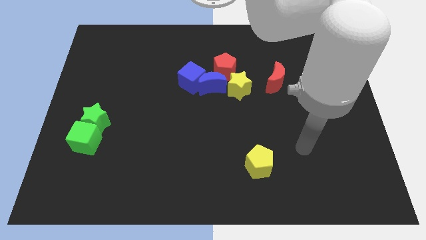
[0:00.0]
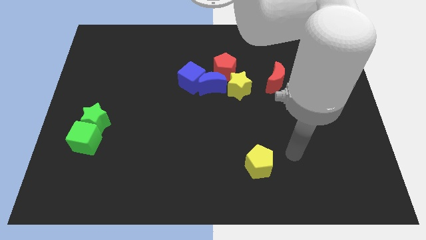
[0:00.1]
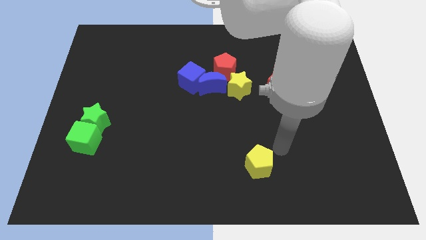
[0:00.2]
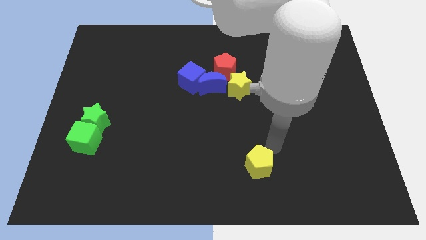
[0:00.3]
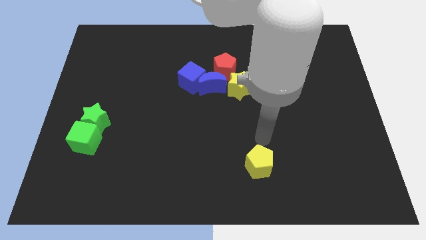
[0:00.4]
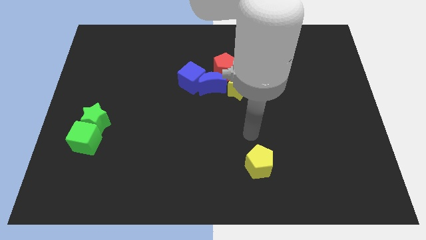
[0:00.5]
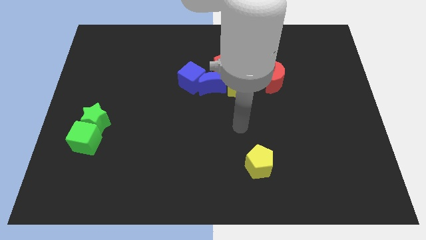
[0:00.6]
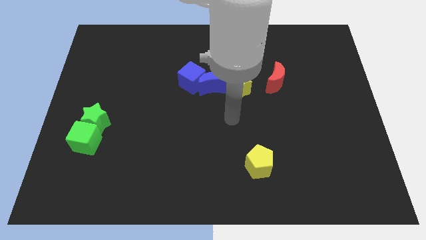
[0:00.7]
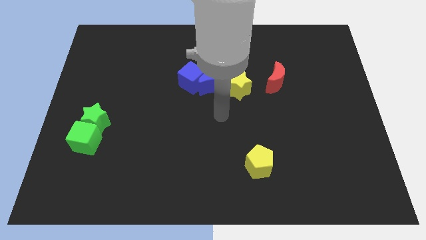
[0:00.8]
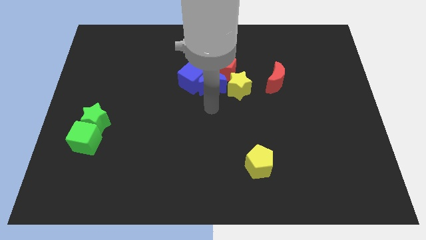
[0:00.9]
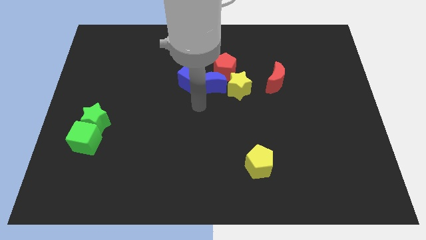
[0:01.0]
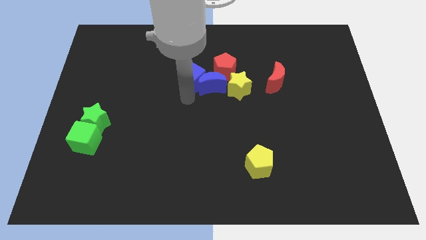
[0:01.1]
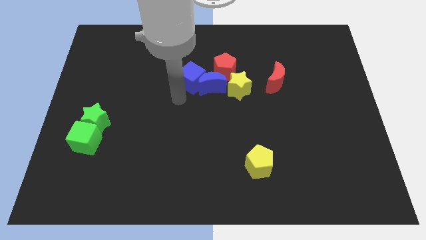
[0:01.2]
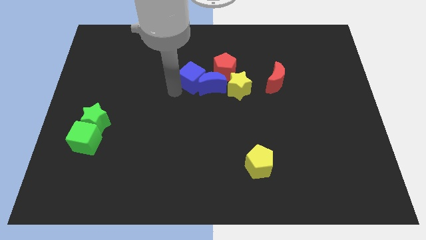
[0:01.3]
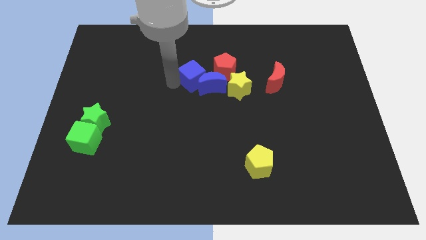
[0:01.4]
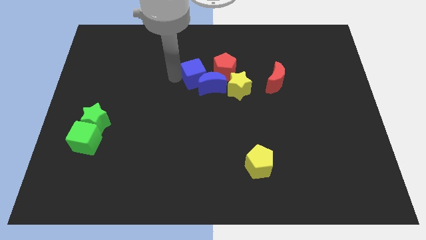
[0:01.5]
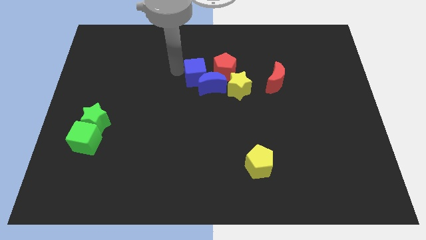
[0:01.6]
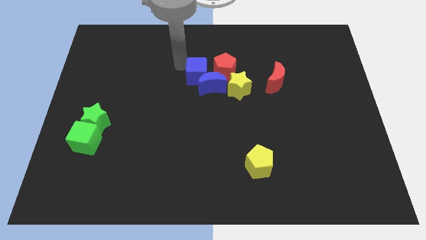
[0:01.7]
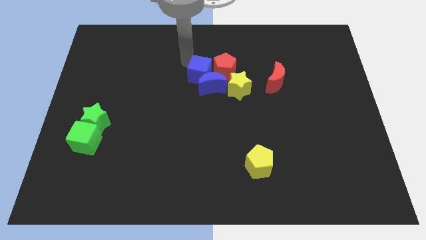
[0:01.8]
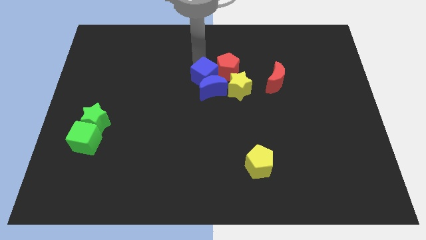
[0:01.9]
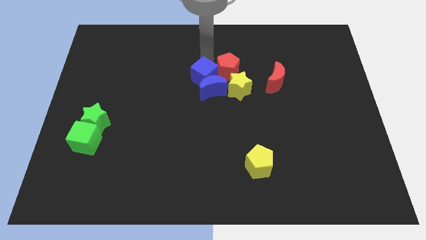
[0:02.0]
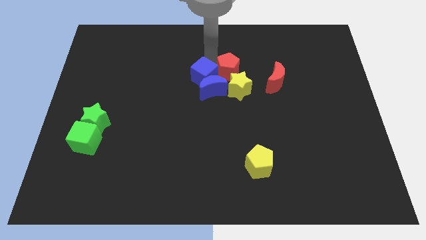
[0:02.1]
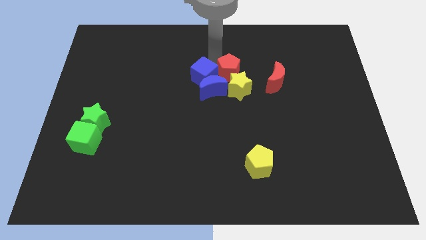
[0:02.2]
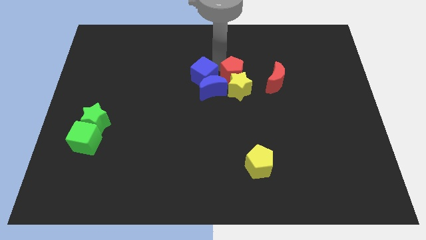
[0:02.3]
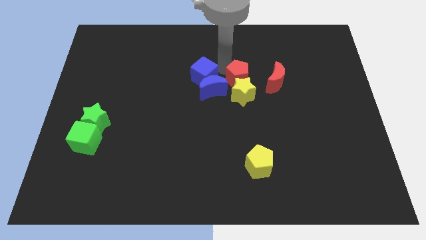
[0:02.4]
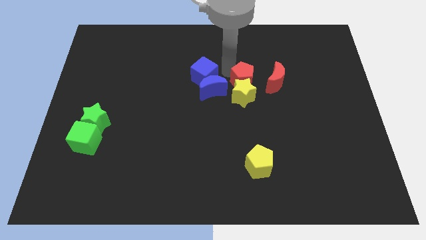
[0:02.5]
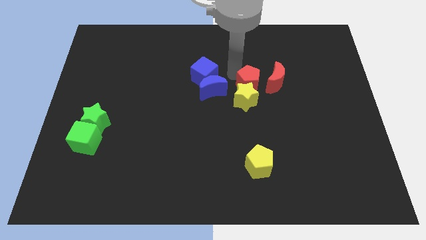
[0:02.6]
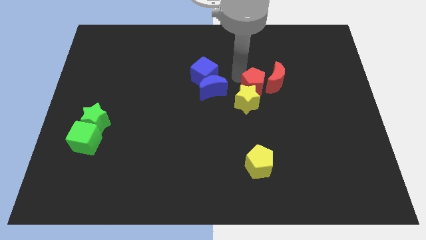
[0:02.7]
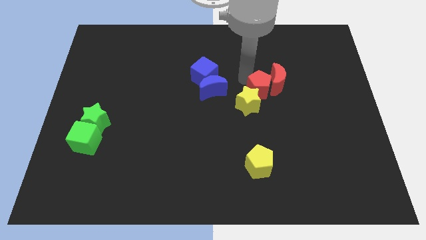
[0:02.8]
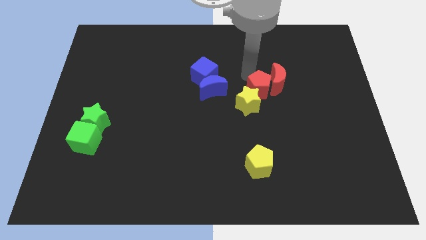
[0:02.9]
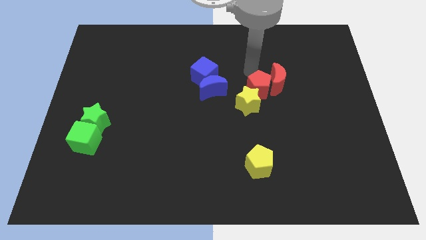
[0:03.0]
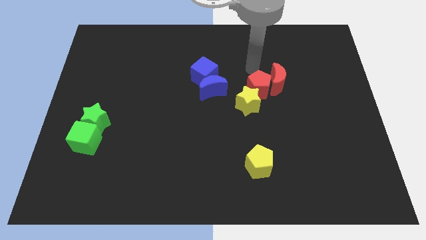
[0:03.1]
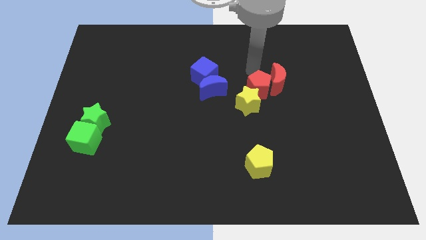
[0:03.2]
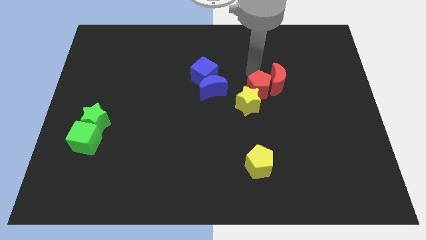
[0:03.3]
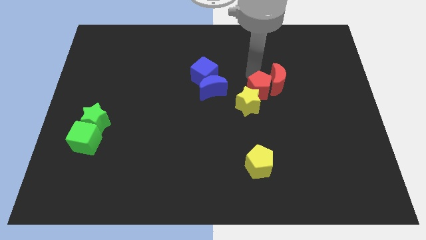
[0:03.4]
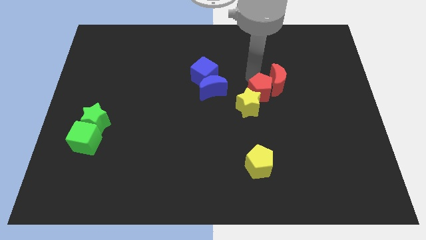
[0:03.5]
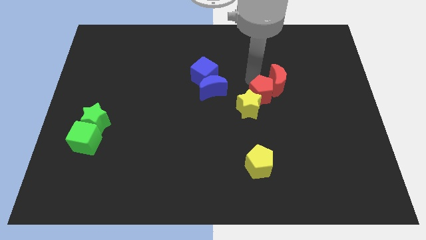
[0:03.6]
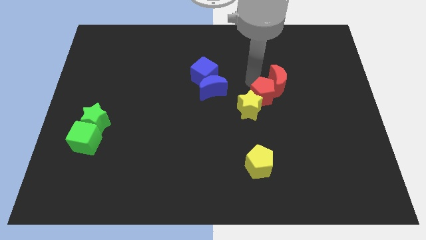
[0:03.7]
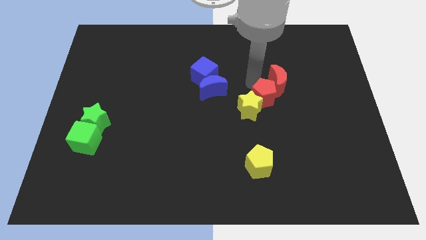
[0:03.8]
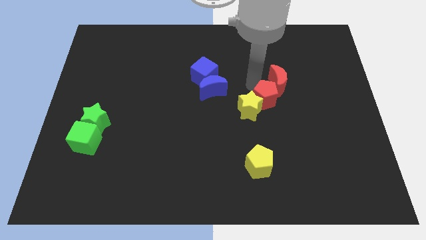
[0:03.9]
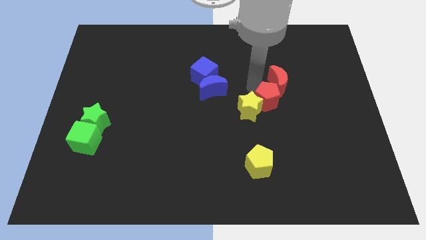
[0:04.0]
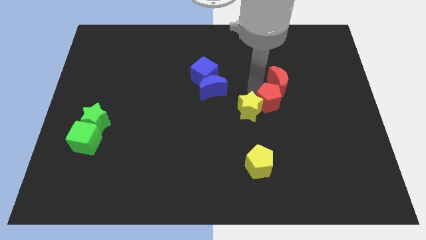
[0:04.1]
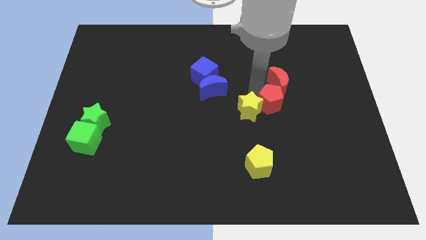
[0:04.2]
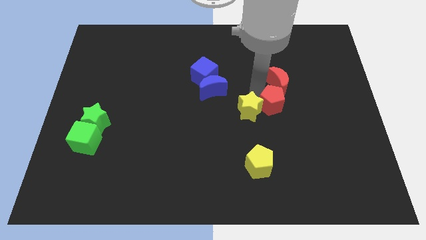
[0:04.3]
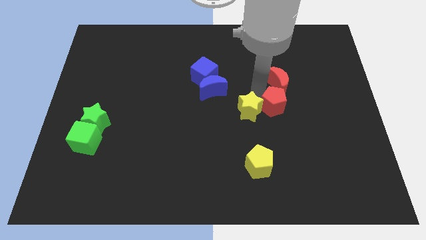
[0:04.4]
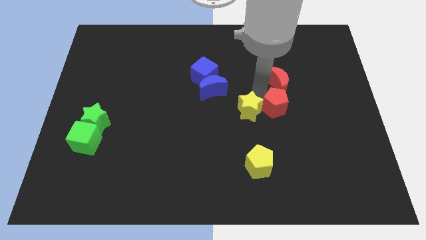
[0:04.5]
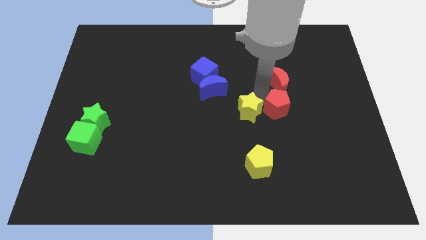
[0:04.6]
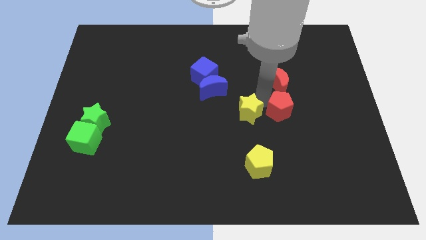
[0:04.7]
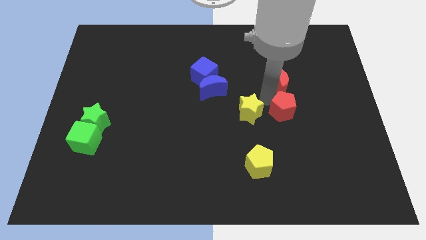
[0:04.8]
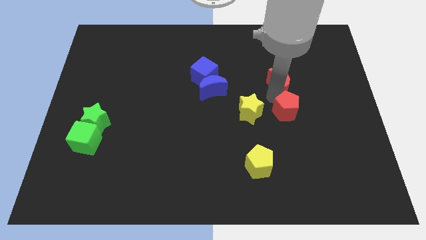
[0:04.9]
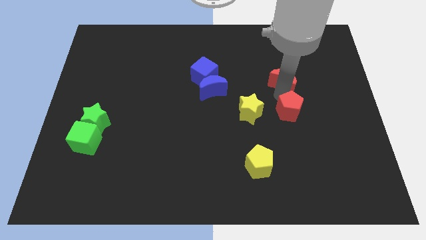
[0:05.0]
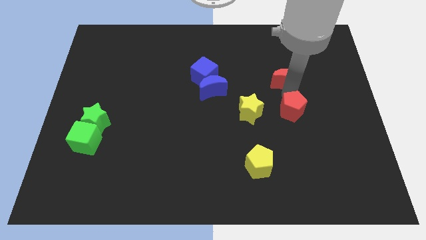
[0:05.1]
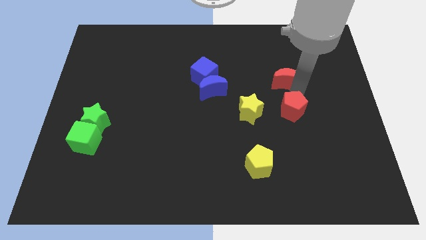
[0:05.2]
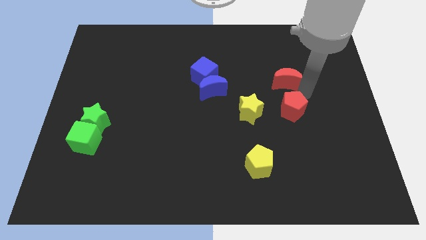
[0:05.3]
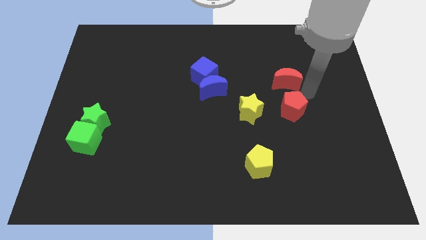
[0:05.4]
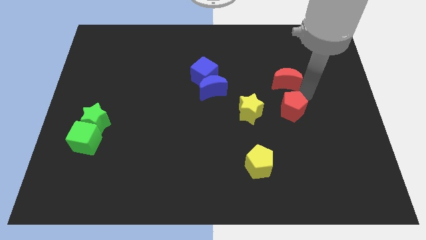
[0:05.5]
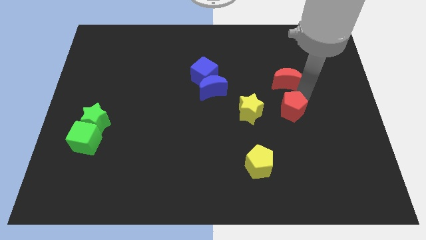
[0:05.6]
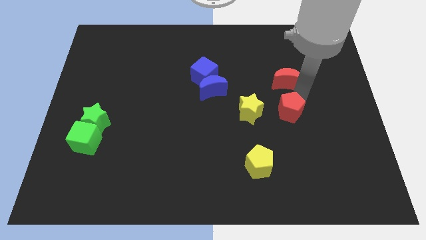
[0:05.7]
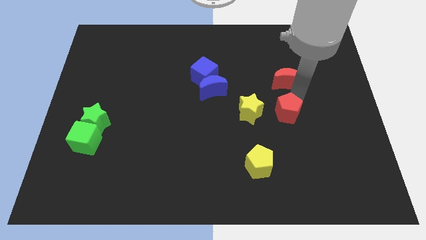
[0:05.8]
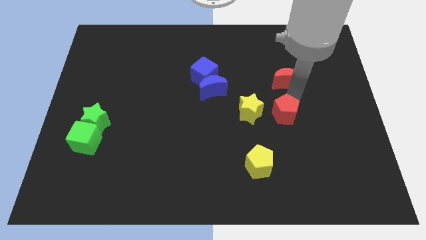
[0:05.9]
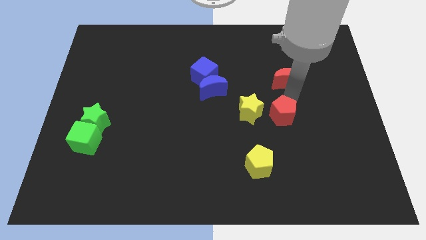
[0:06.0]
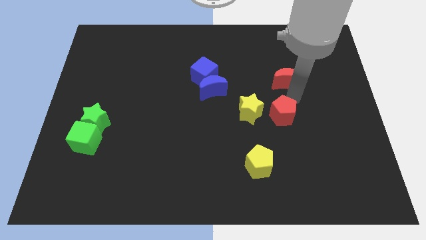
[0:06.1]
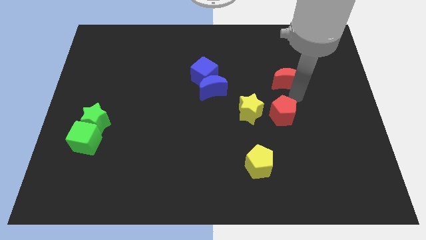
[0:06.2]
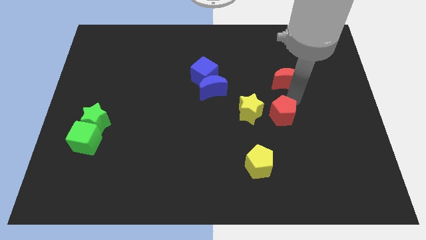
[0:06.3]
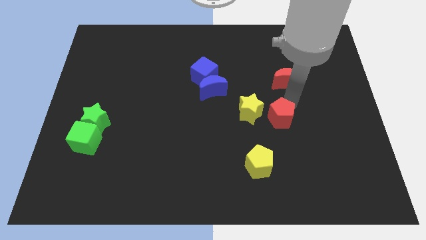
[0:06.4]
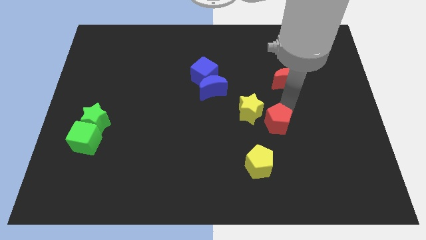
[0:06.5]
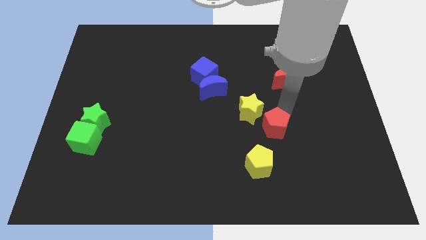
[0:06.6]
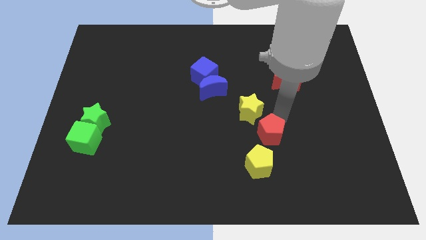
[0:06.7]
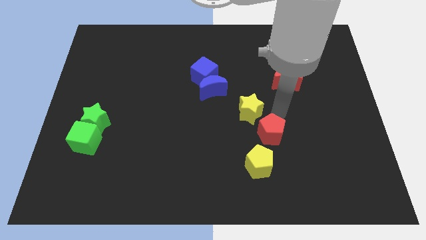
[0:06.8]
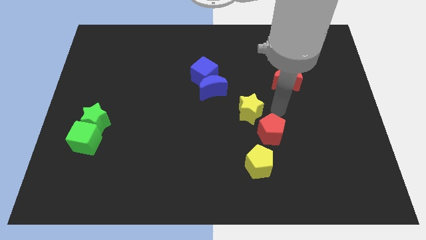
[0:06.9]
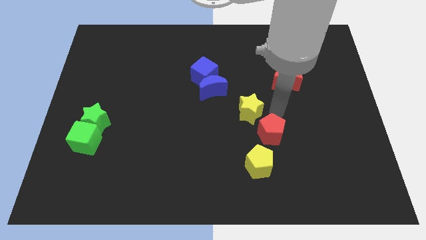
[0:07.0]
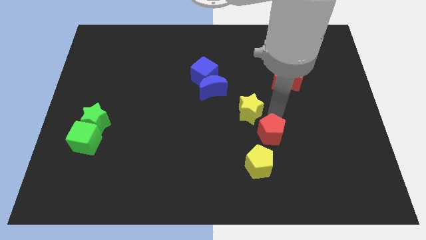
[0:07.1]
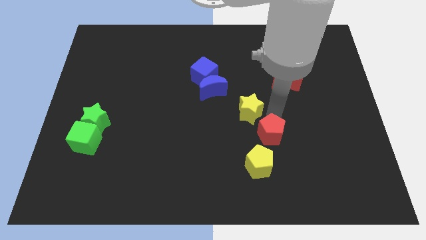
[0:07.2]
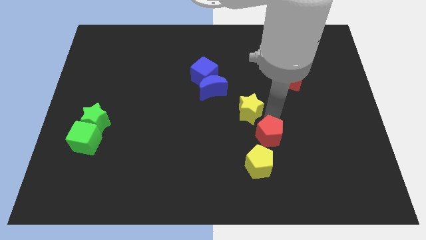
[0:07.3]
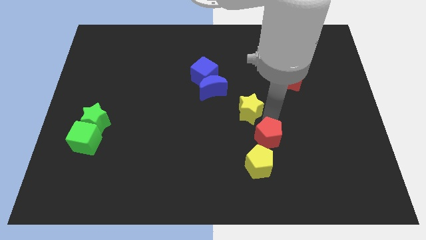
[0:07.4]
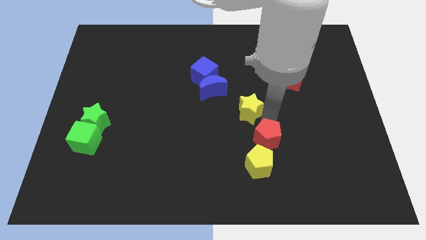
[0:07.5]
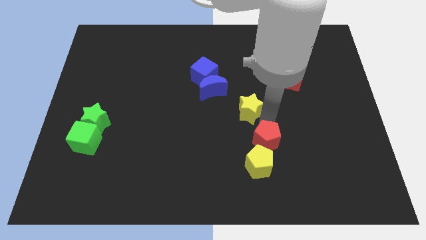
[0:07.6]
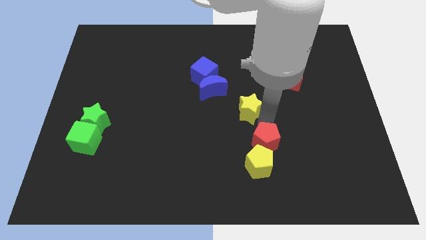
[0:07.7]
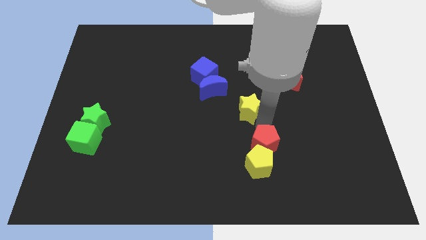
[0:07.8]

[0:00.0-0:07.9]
move the red pentagon close to the yellow pentagon
